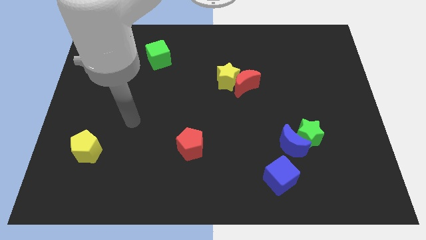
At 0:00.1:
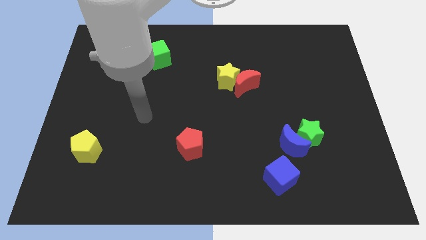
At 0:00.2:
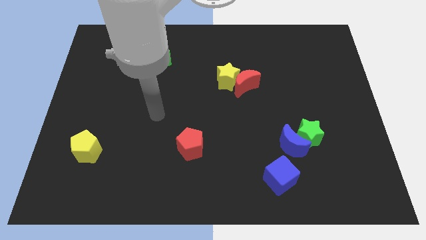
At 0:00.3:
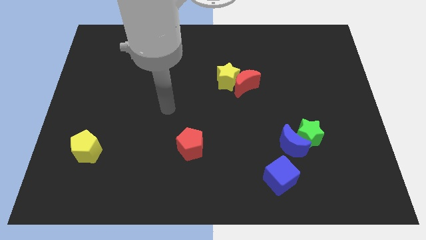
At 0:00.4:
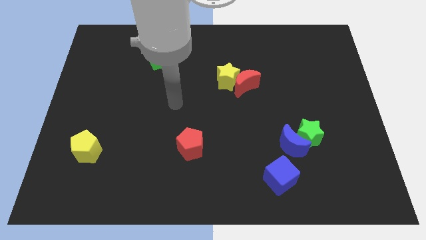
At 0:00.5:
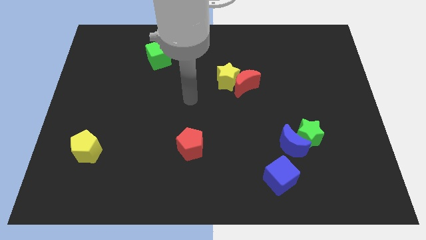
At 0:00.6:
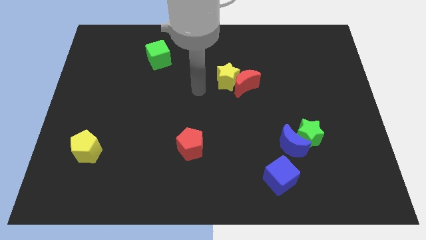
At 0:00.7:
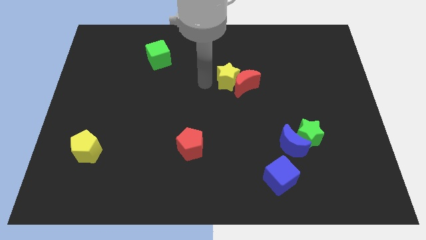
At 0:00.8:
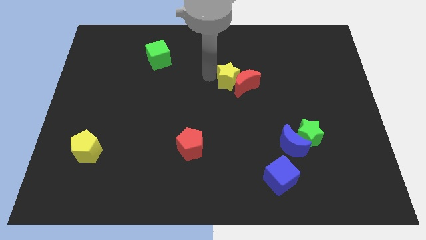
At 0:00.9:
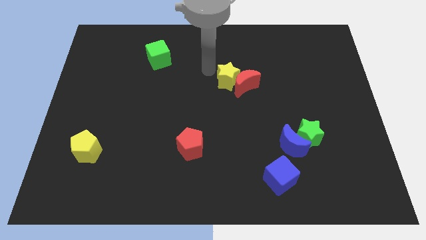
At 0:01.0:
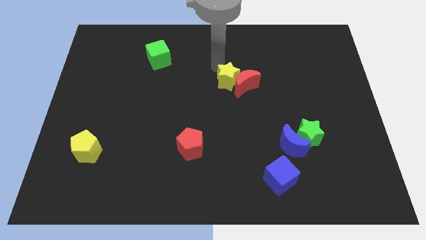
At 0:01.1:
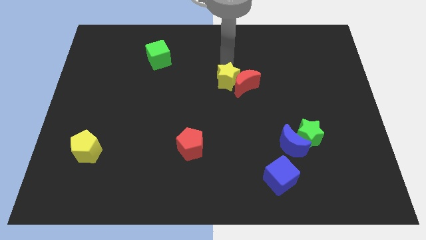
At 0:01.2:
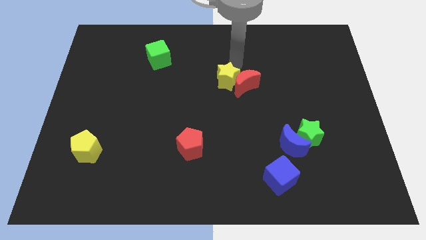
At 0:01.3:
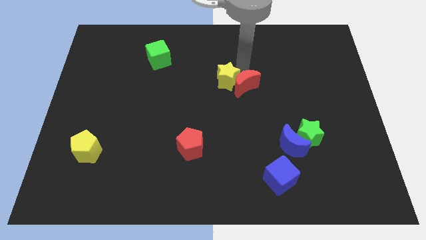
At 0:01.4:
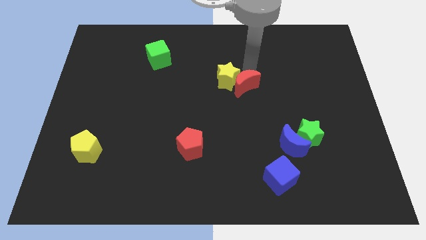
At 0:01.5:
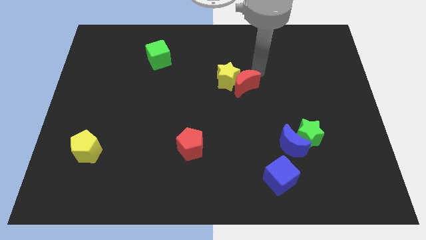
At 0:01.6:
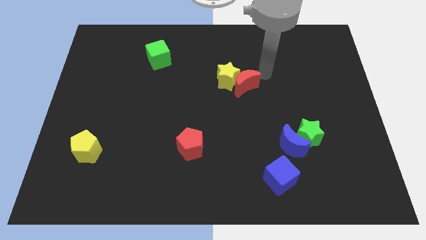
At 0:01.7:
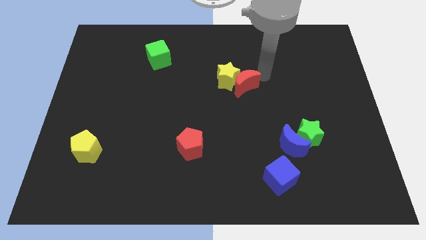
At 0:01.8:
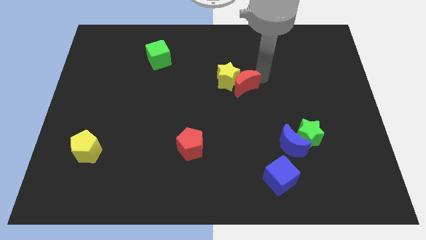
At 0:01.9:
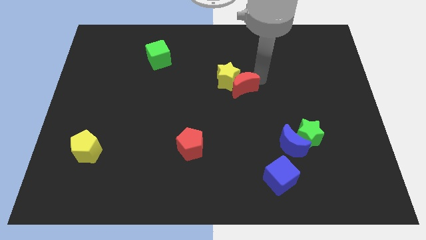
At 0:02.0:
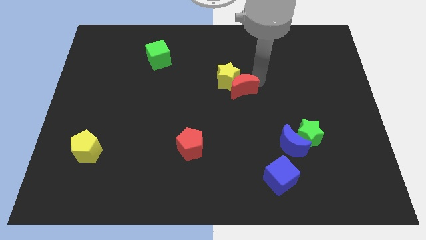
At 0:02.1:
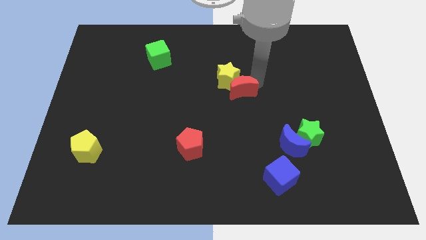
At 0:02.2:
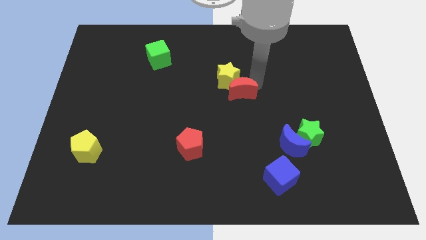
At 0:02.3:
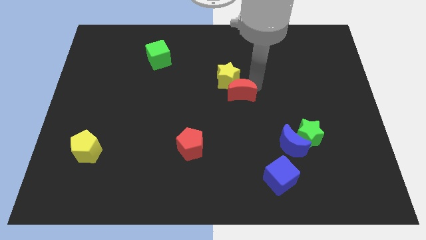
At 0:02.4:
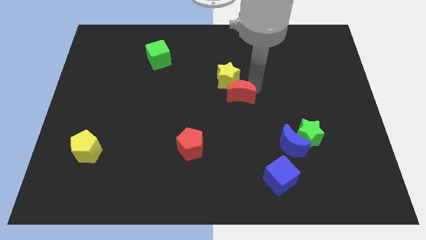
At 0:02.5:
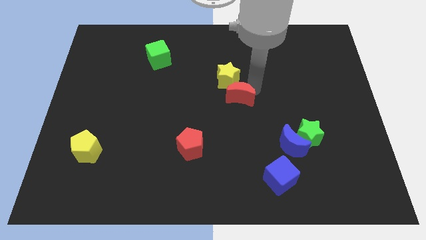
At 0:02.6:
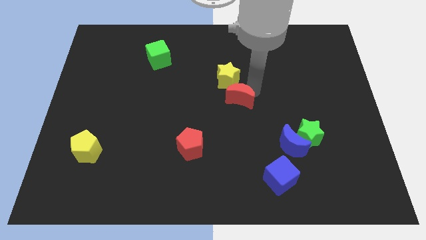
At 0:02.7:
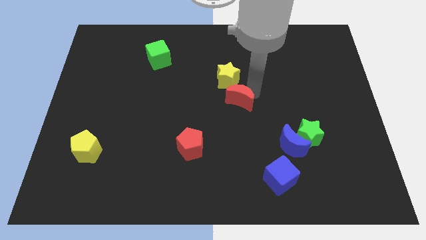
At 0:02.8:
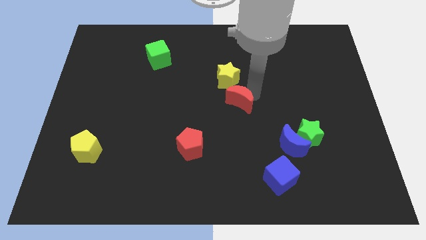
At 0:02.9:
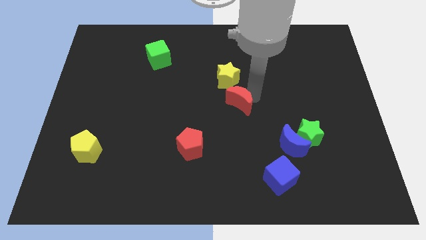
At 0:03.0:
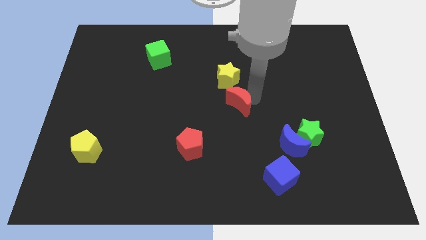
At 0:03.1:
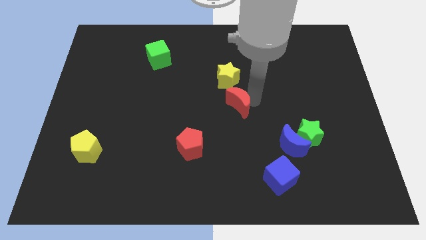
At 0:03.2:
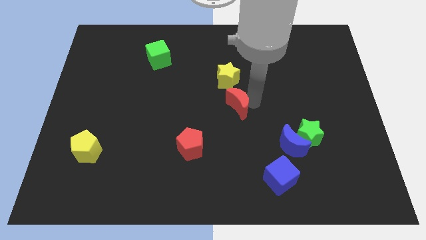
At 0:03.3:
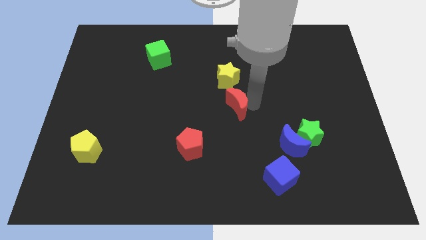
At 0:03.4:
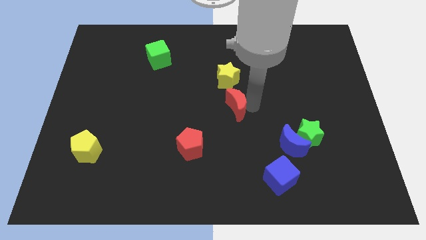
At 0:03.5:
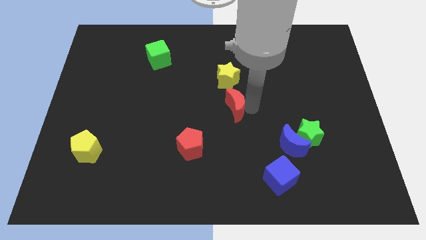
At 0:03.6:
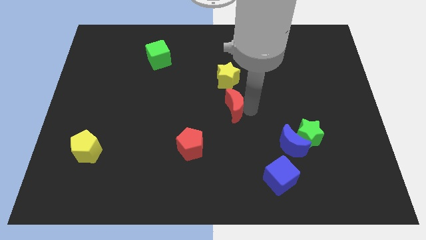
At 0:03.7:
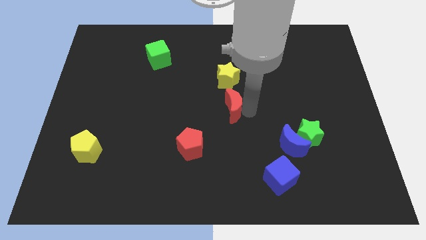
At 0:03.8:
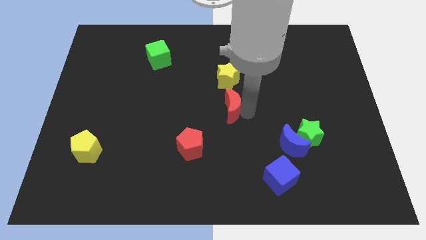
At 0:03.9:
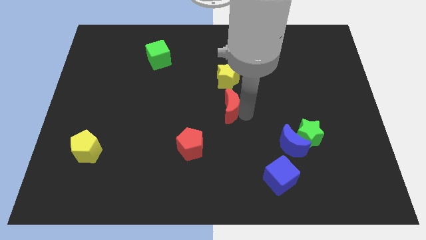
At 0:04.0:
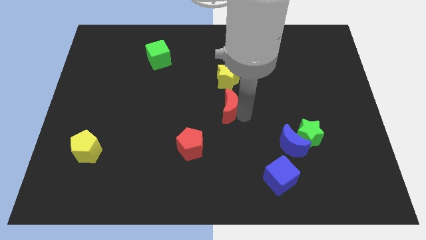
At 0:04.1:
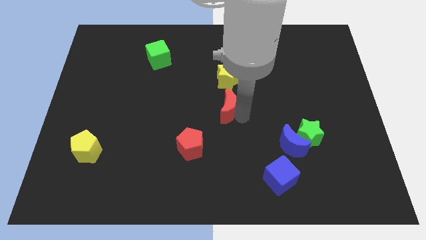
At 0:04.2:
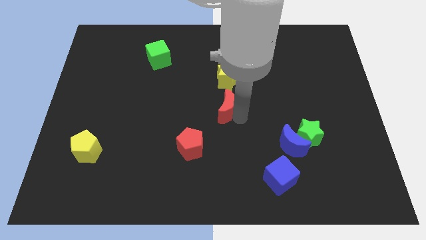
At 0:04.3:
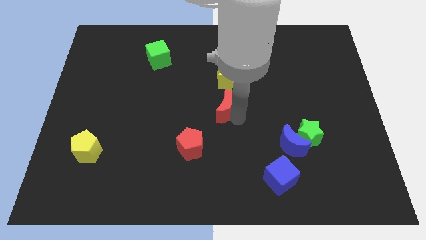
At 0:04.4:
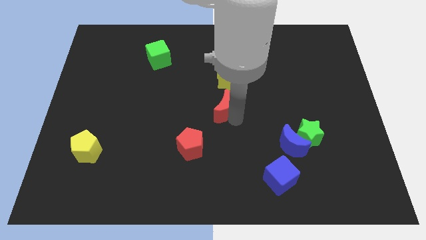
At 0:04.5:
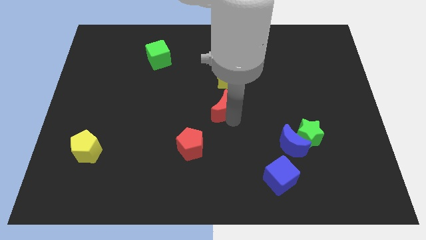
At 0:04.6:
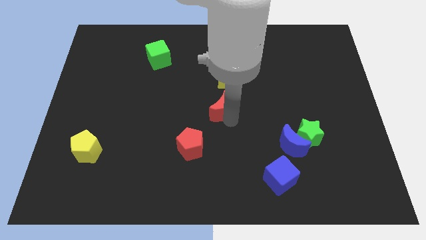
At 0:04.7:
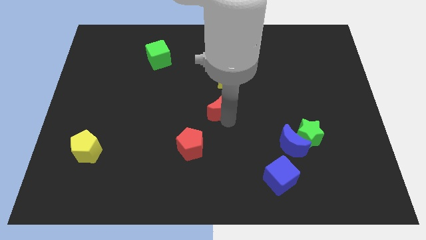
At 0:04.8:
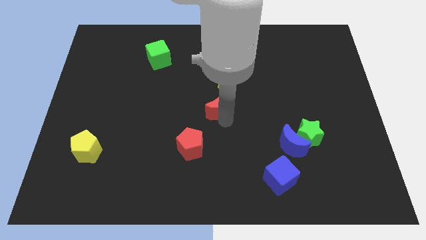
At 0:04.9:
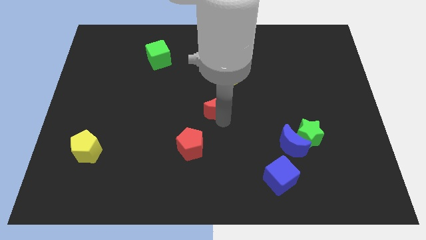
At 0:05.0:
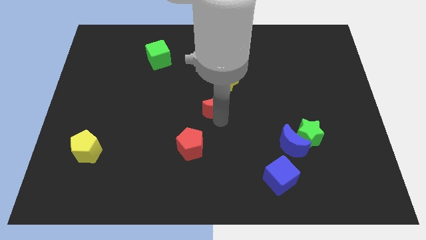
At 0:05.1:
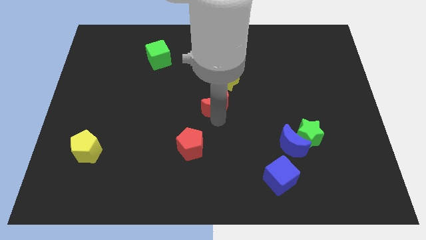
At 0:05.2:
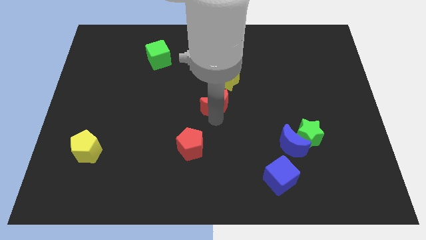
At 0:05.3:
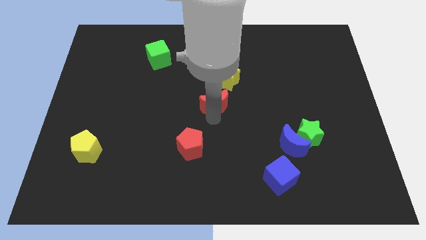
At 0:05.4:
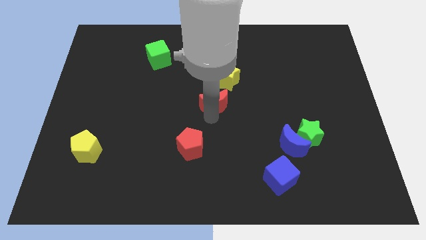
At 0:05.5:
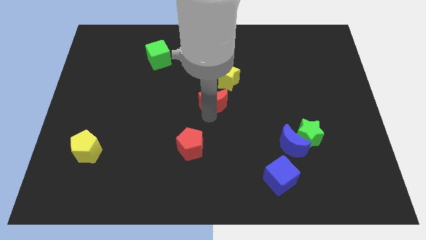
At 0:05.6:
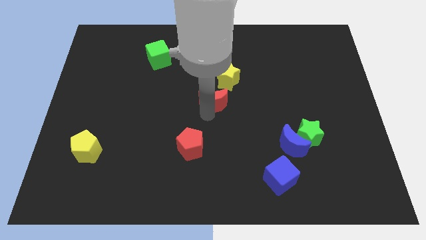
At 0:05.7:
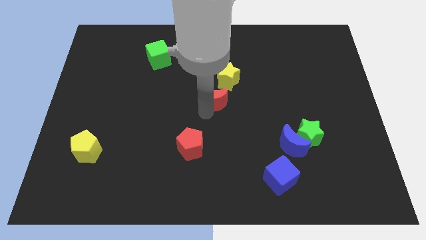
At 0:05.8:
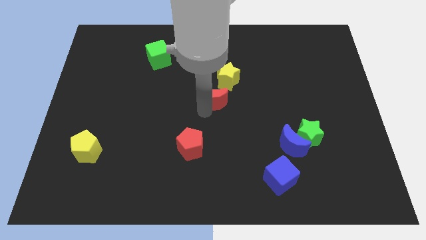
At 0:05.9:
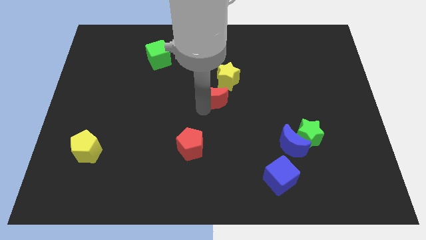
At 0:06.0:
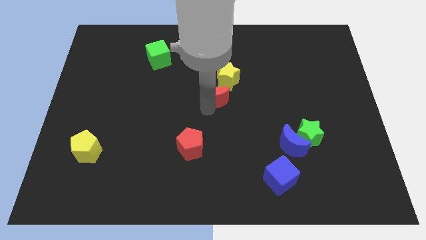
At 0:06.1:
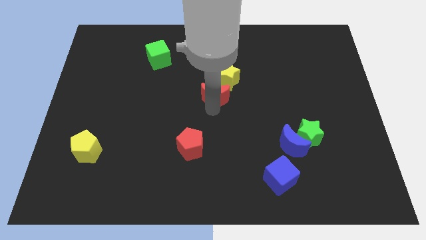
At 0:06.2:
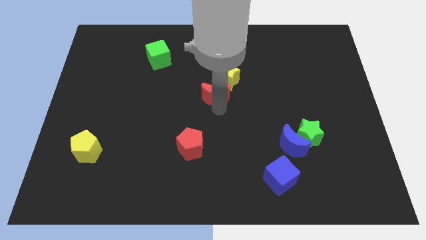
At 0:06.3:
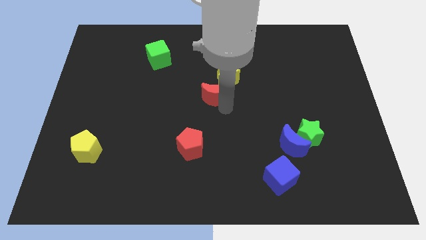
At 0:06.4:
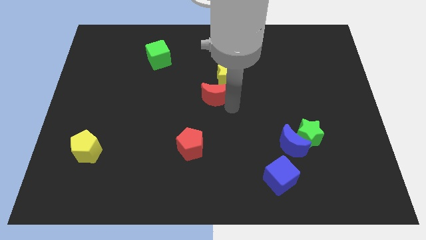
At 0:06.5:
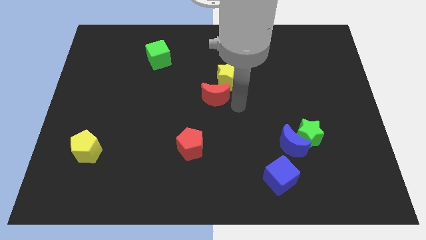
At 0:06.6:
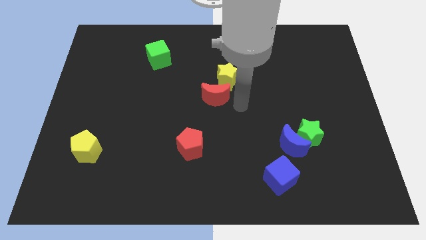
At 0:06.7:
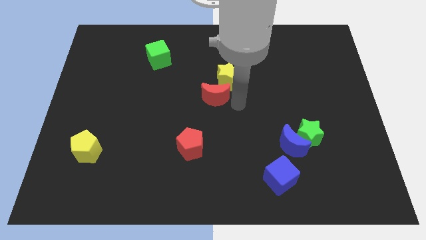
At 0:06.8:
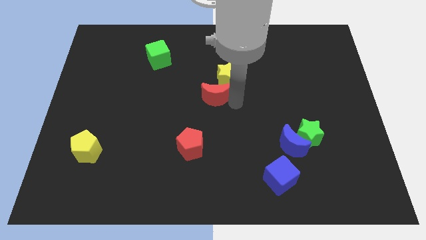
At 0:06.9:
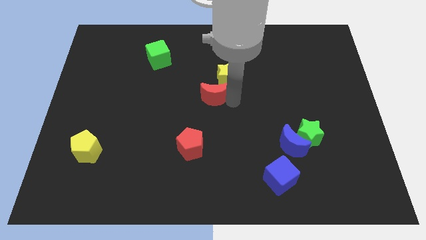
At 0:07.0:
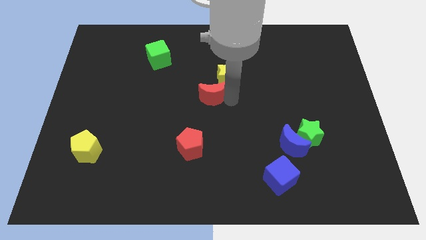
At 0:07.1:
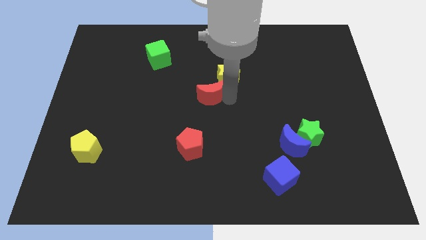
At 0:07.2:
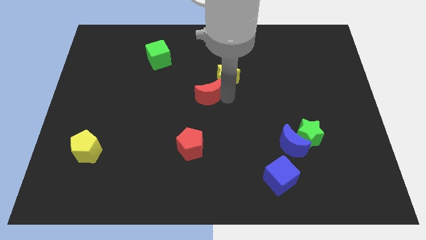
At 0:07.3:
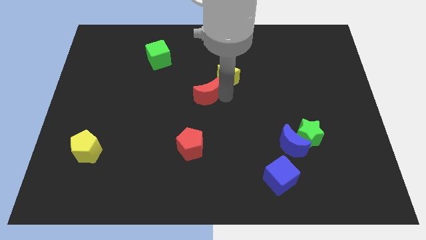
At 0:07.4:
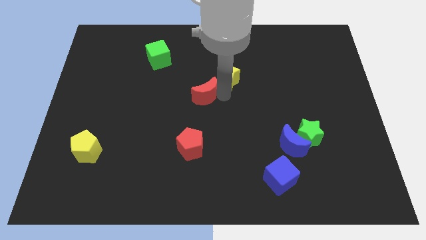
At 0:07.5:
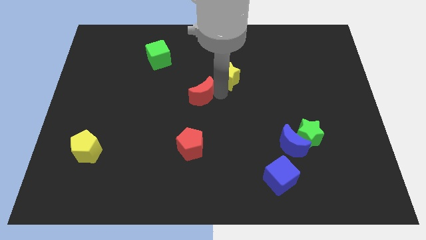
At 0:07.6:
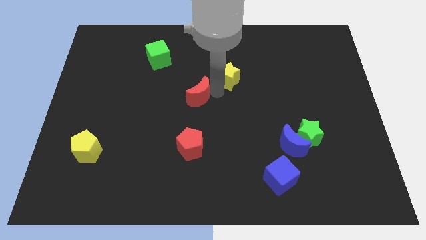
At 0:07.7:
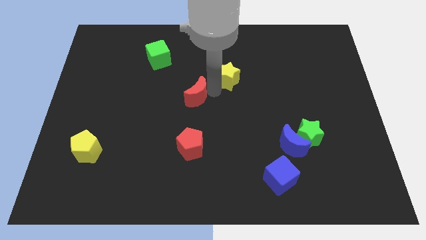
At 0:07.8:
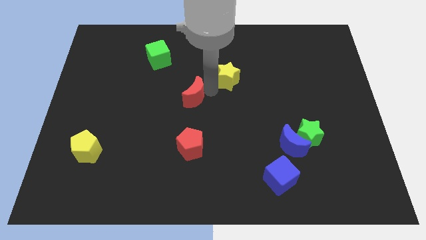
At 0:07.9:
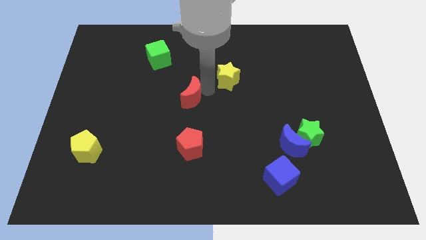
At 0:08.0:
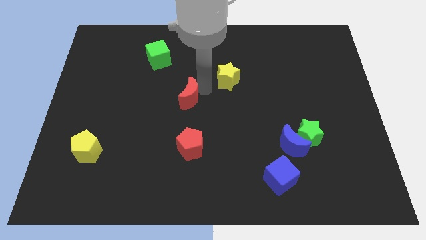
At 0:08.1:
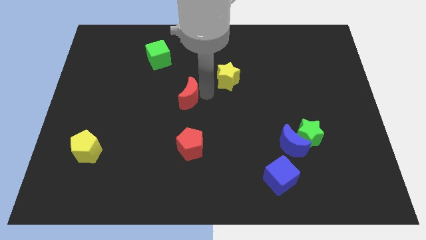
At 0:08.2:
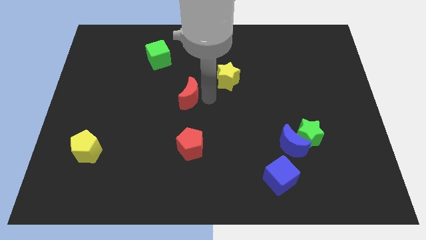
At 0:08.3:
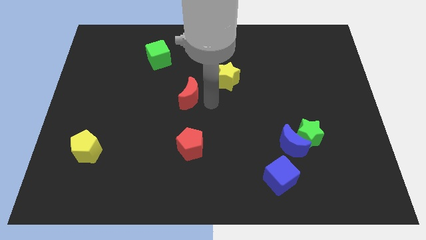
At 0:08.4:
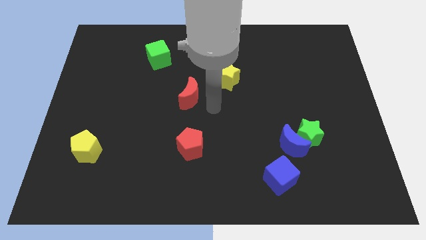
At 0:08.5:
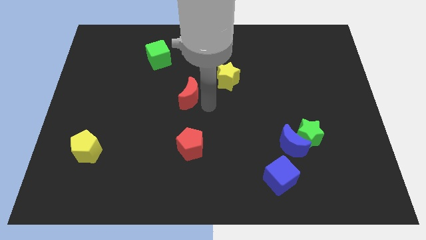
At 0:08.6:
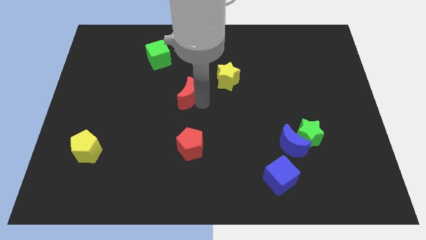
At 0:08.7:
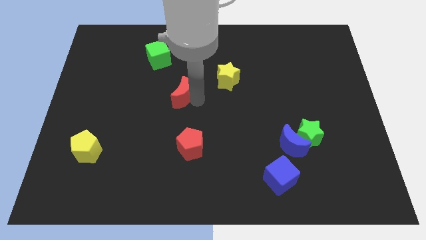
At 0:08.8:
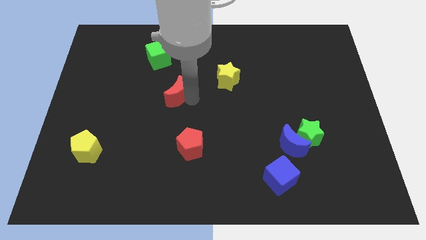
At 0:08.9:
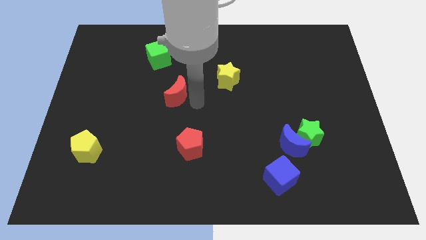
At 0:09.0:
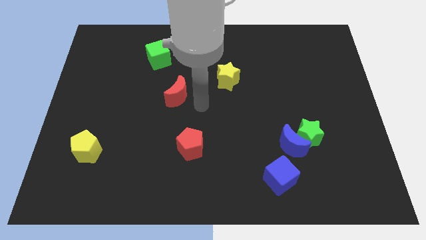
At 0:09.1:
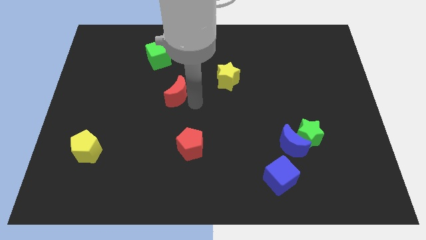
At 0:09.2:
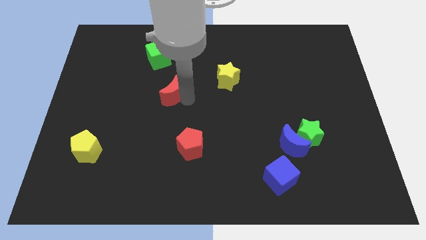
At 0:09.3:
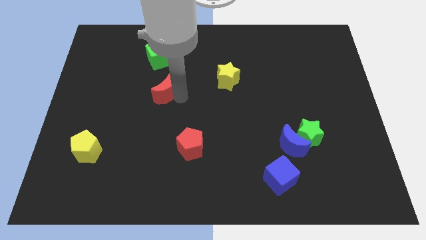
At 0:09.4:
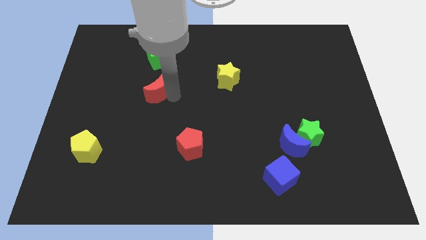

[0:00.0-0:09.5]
push the red moon left
